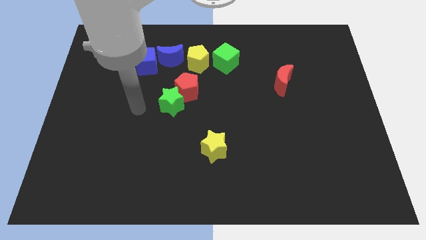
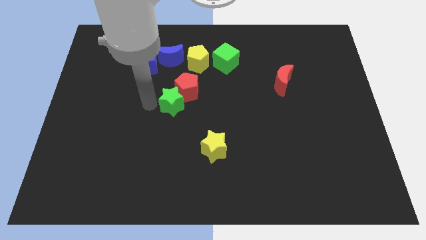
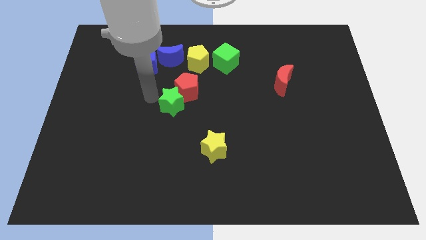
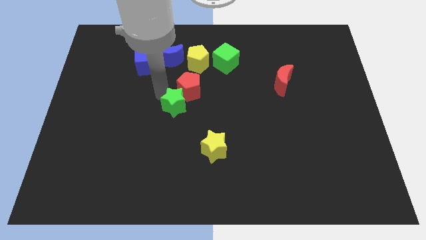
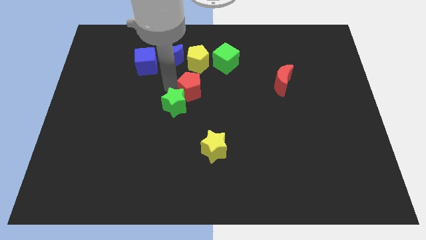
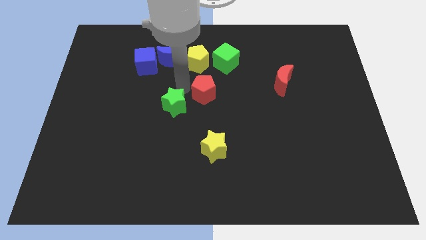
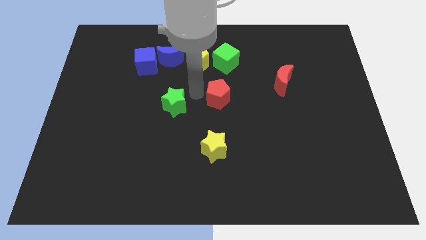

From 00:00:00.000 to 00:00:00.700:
move the green star away from the red pentagon

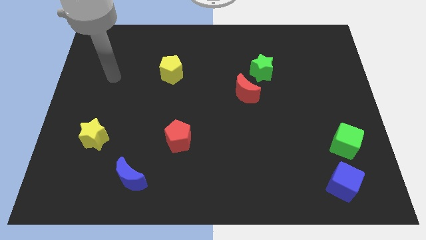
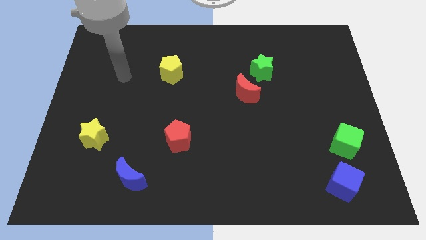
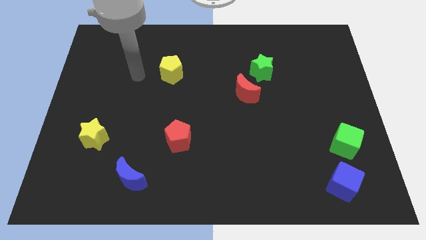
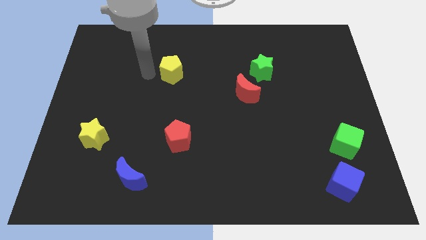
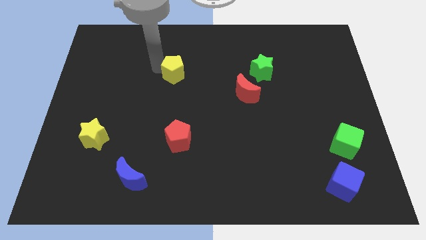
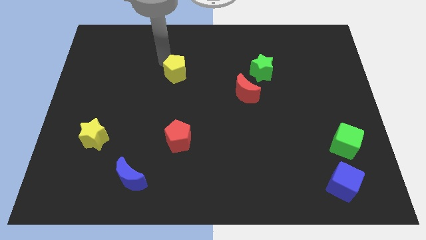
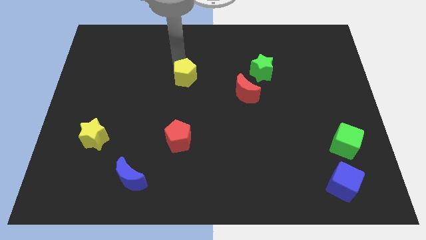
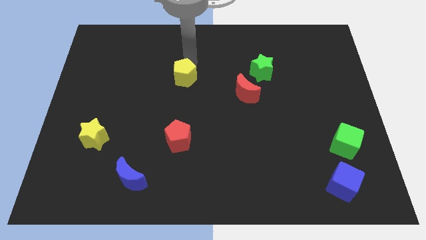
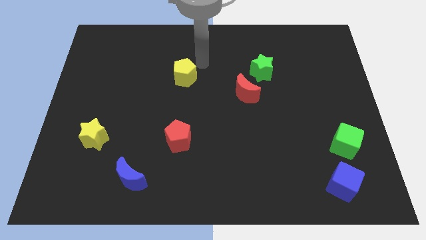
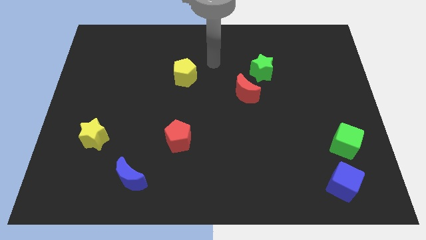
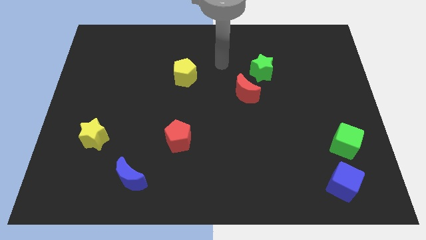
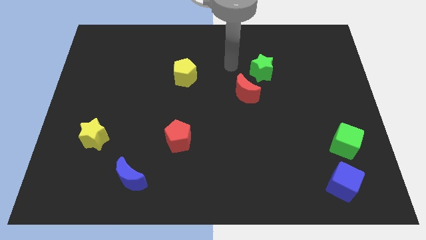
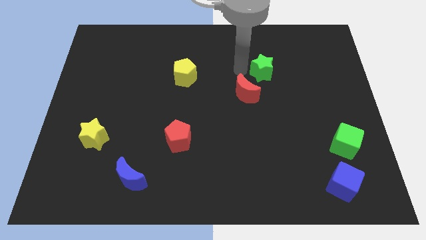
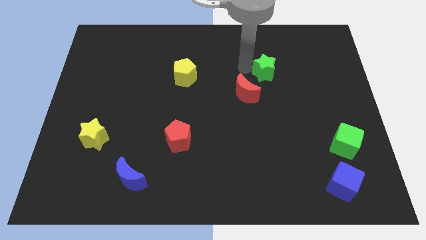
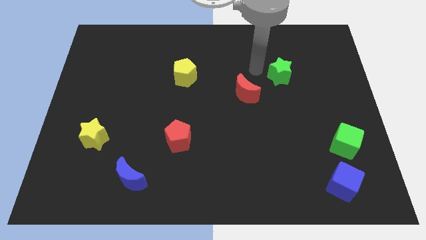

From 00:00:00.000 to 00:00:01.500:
separate the red moon from the green star

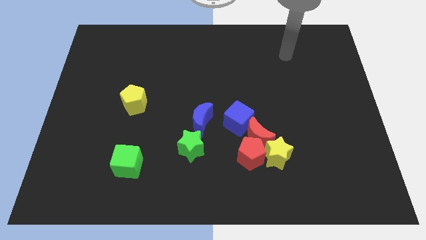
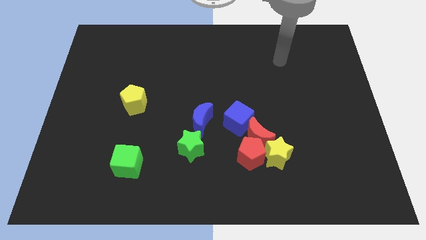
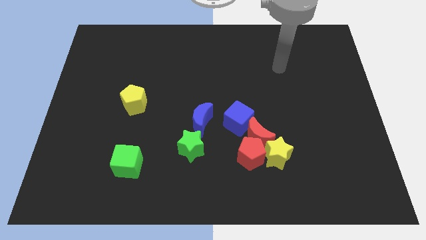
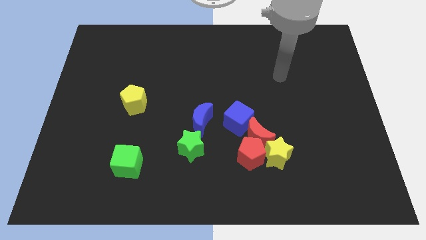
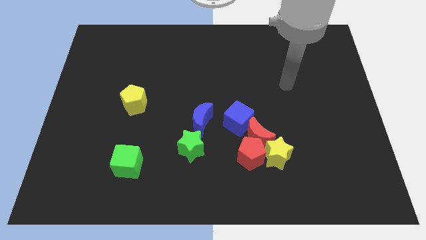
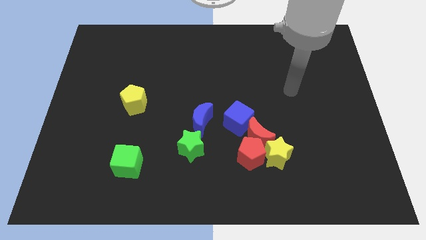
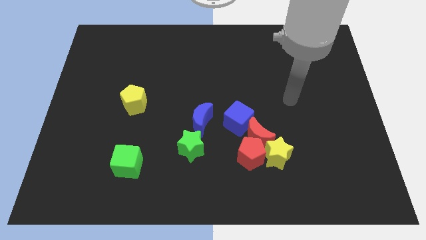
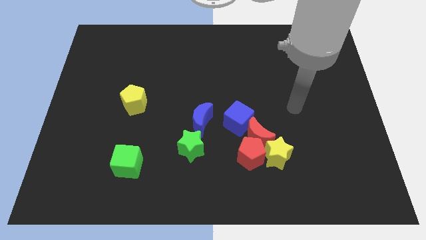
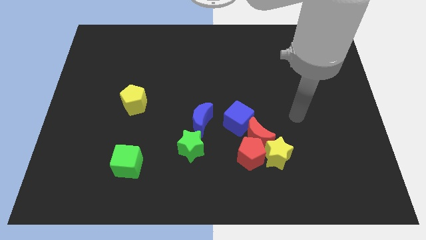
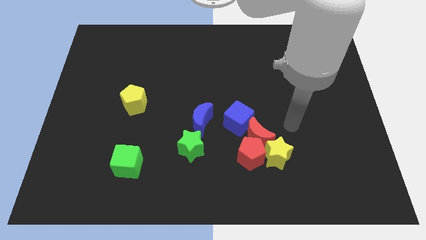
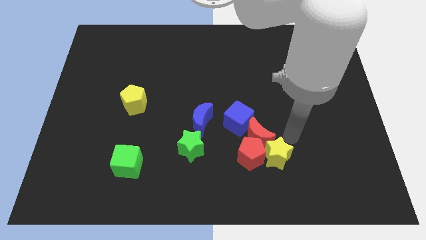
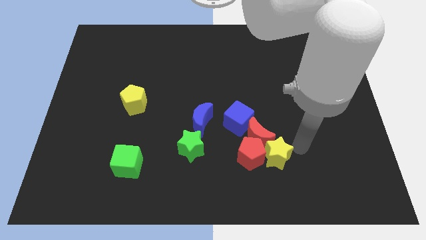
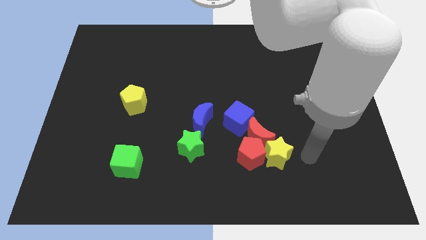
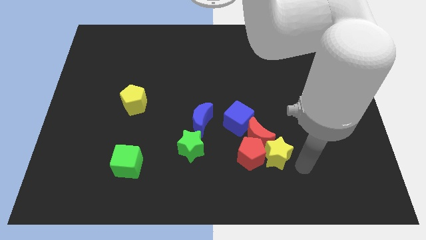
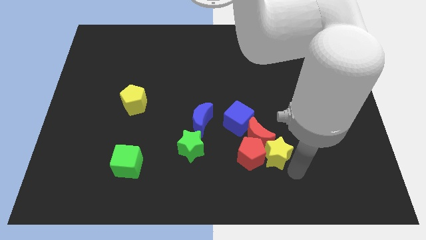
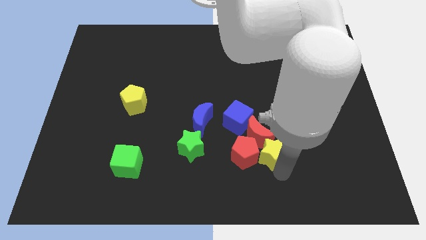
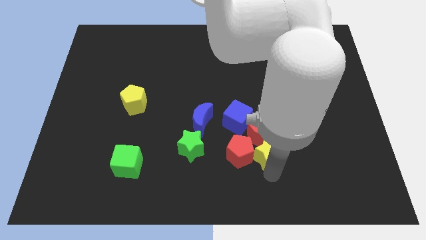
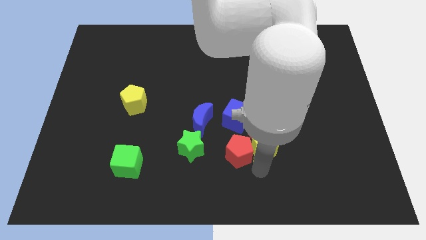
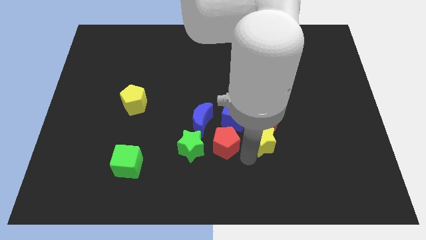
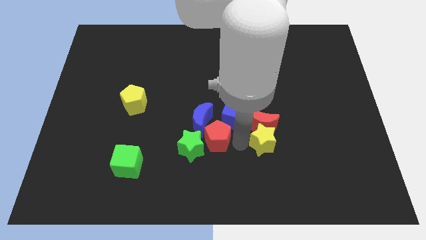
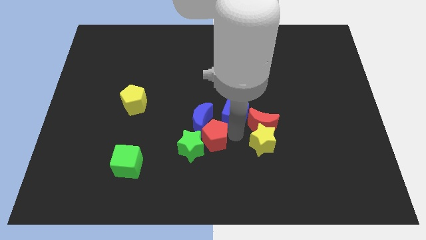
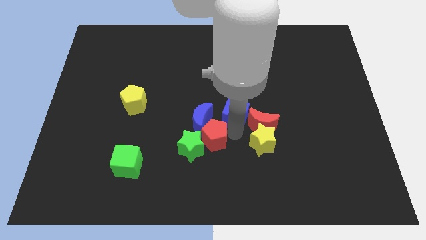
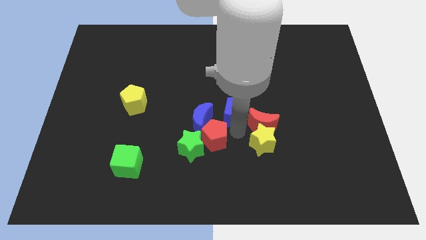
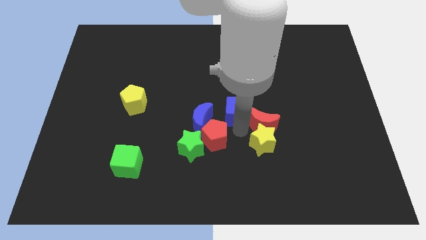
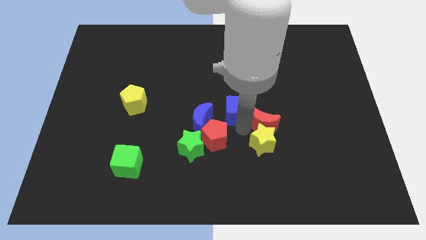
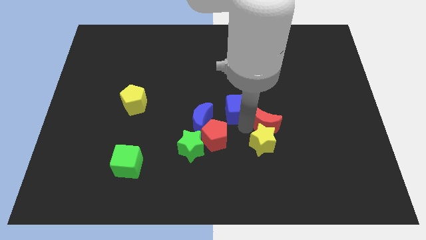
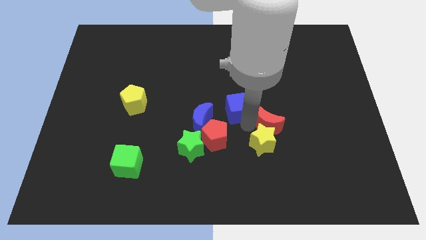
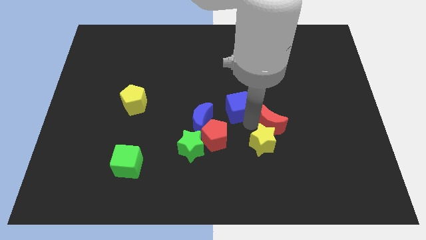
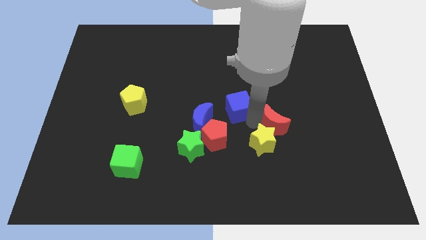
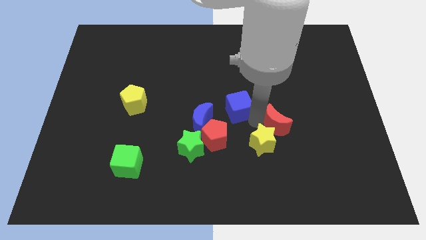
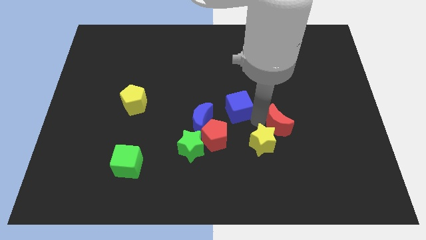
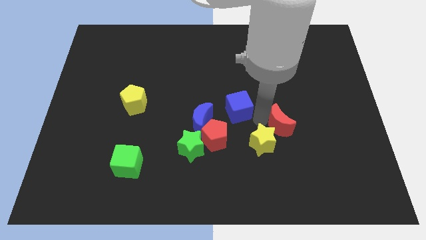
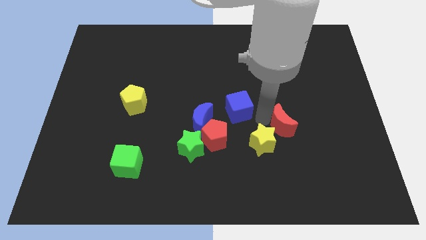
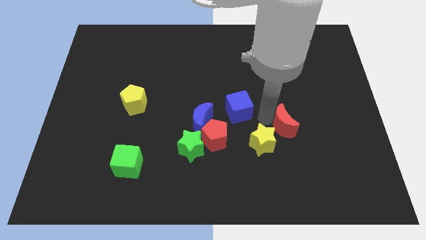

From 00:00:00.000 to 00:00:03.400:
pull the red moon apart from the red pentagon, yellow star, and blue cube

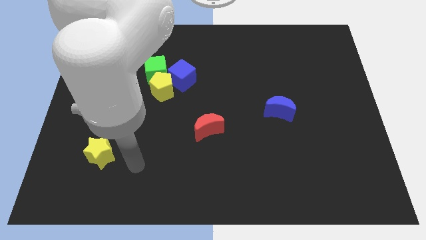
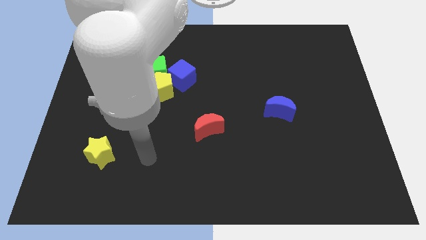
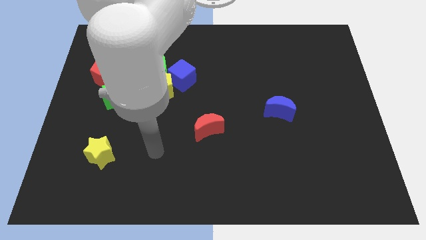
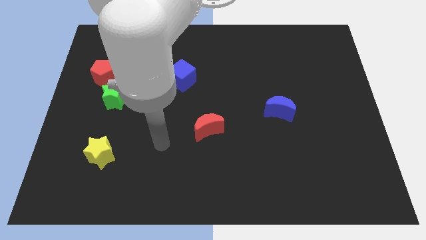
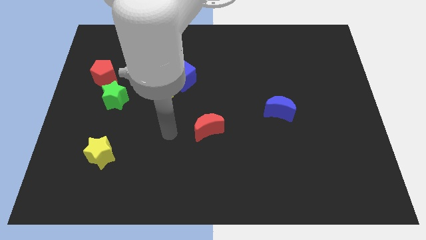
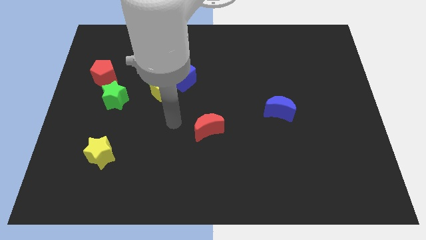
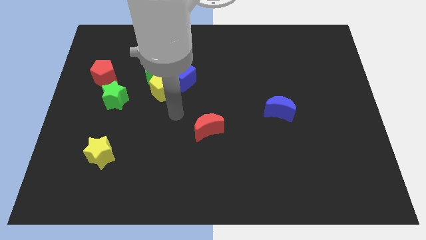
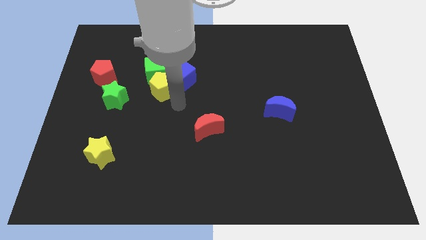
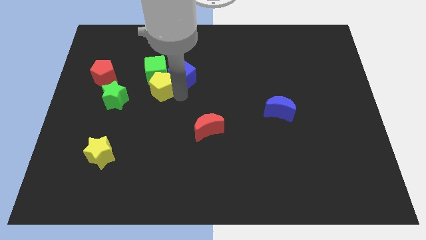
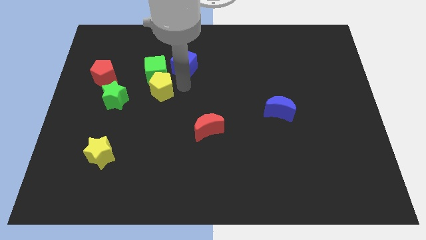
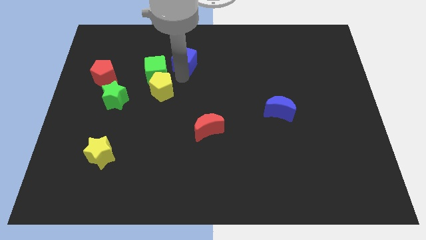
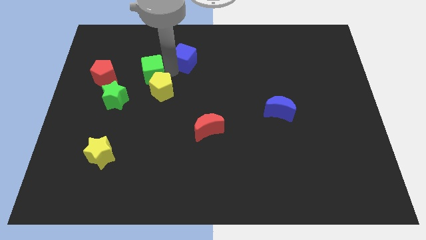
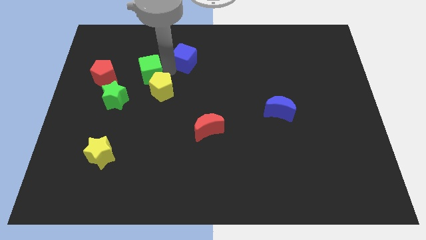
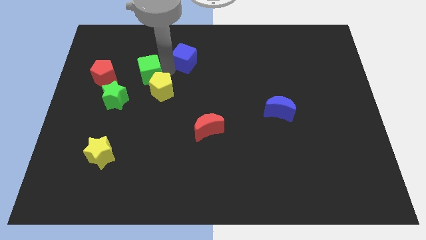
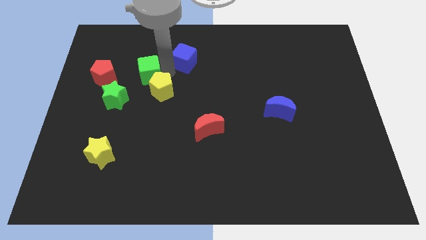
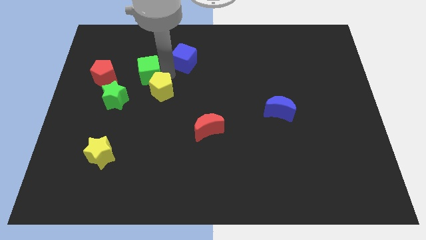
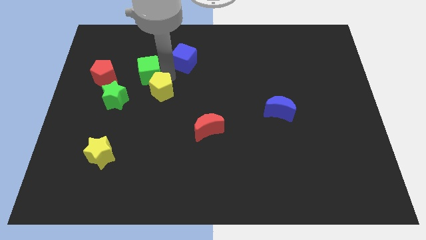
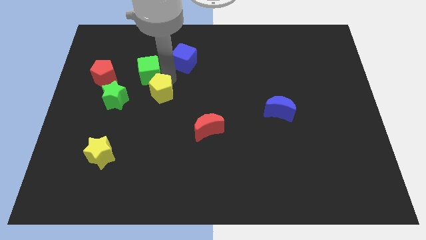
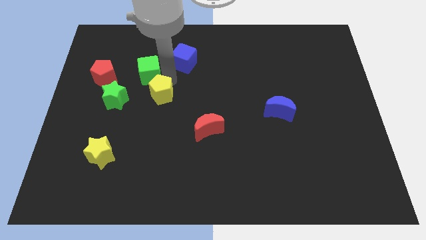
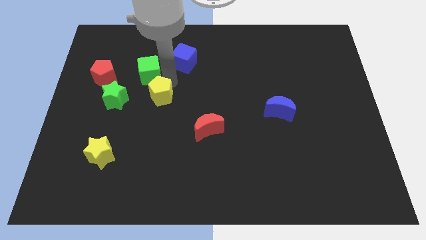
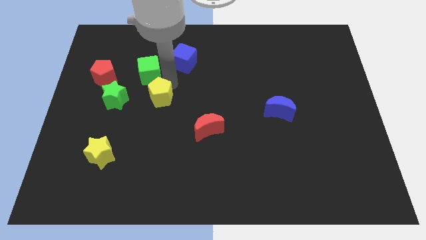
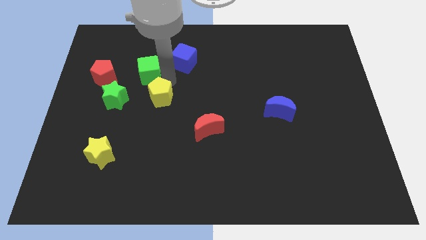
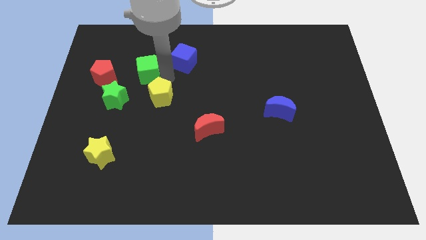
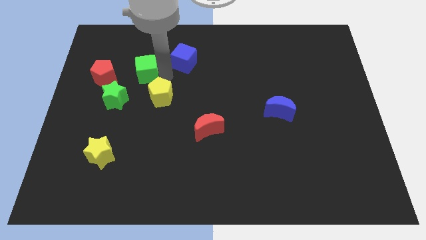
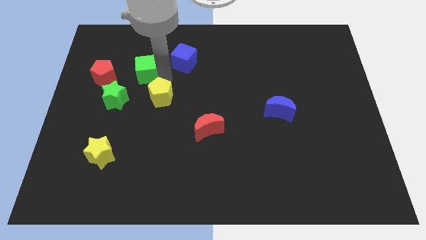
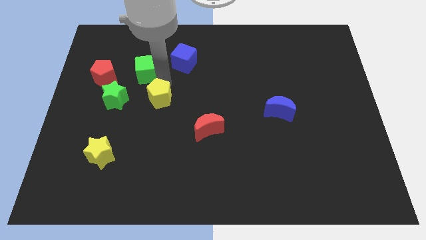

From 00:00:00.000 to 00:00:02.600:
separate the yellow pentagon from the blue cube and green cube

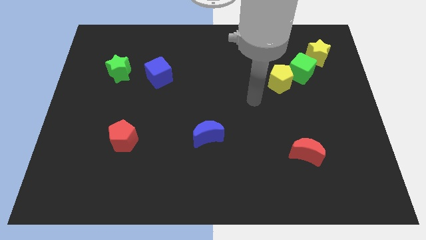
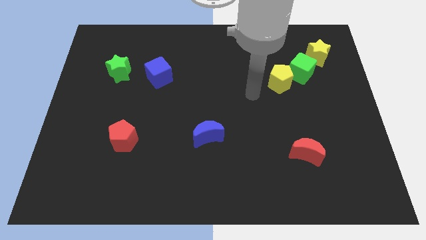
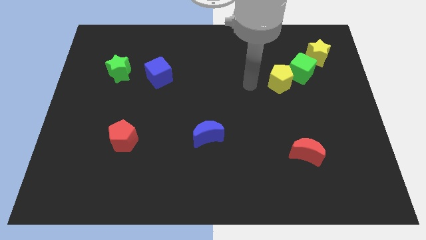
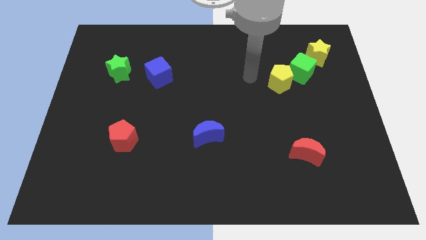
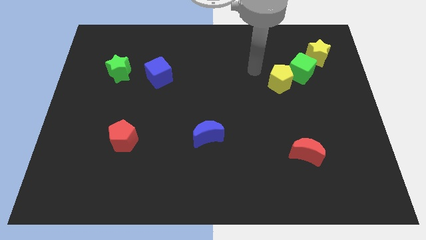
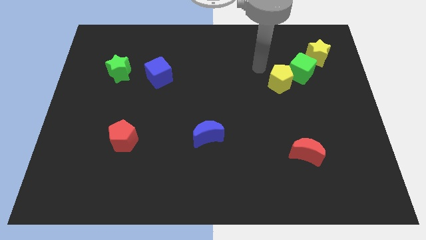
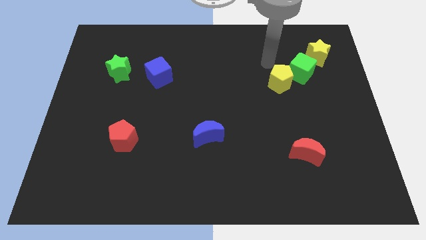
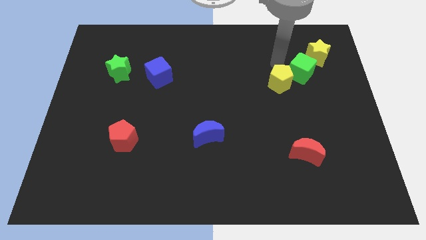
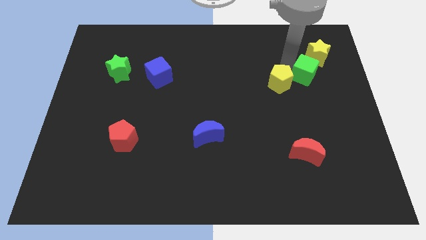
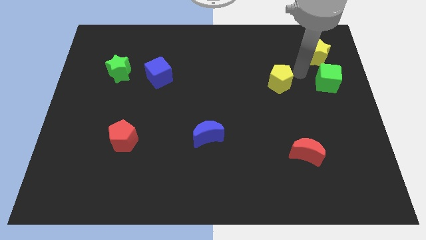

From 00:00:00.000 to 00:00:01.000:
move the yellow pentagon away from the green cube

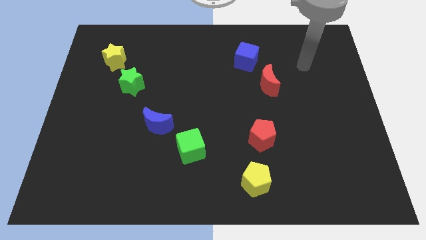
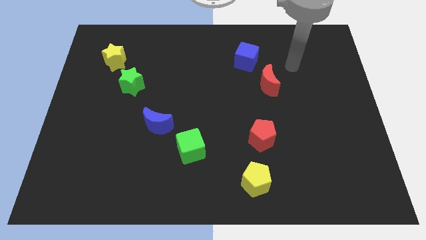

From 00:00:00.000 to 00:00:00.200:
pull the red moon apart from the blue cube
